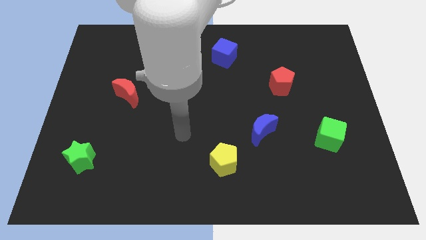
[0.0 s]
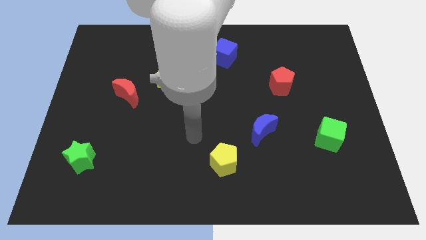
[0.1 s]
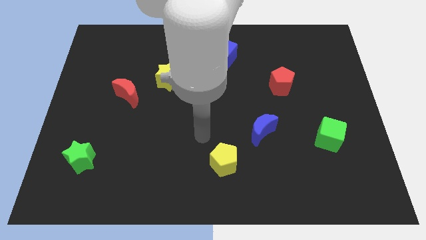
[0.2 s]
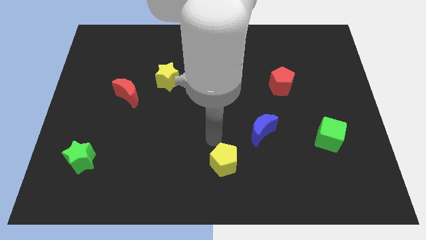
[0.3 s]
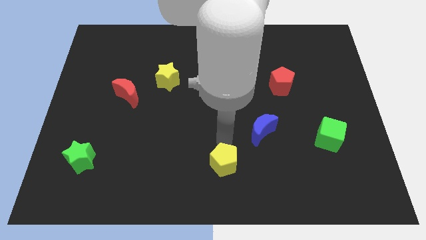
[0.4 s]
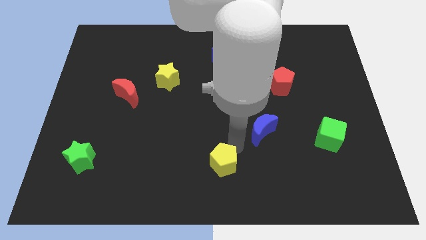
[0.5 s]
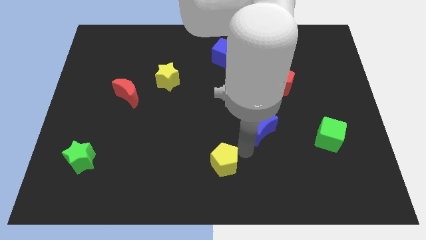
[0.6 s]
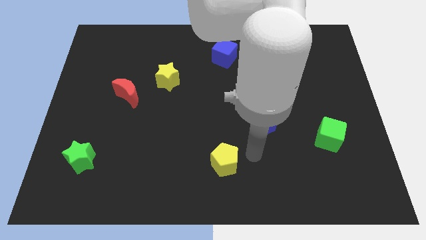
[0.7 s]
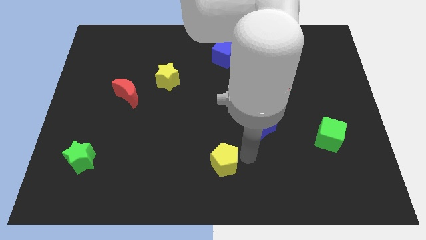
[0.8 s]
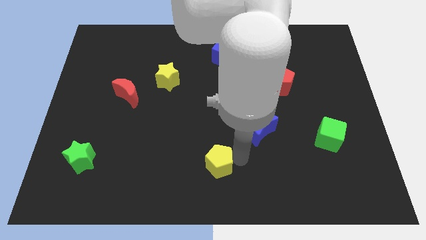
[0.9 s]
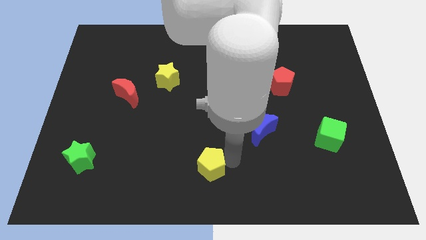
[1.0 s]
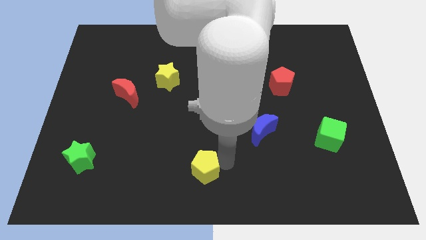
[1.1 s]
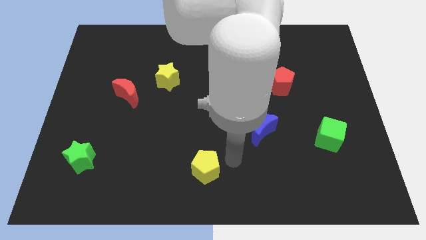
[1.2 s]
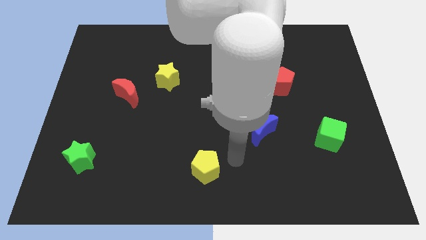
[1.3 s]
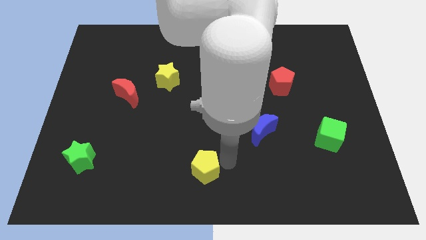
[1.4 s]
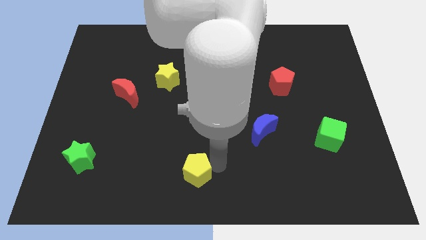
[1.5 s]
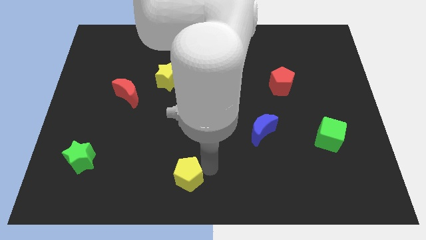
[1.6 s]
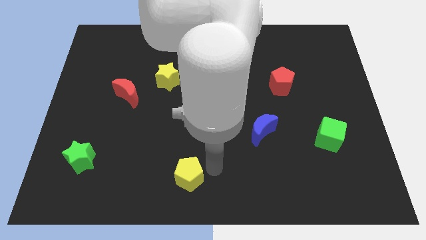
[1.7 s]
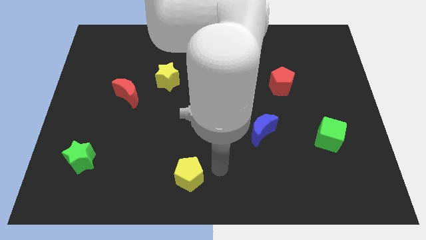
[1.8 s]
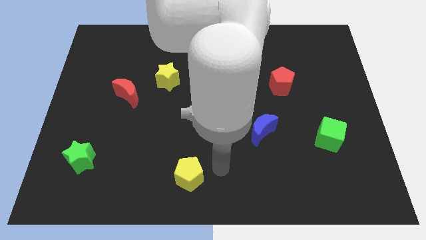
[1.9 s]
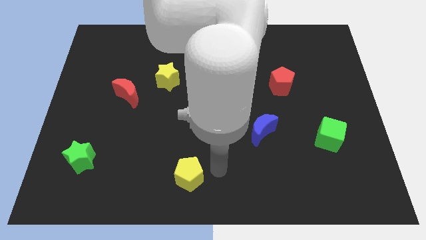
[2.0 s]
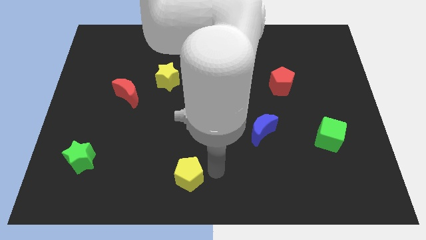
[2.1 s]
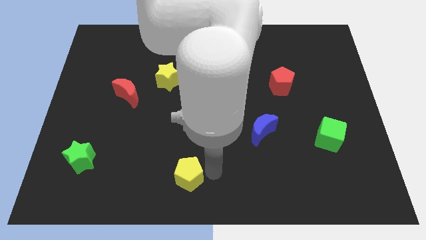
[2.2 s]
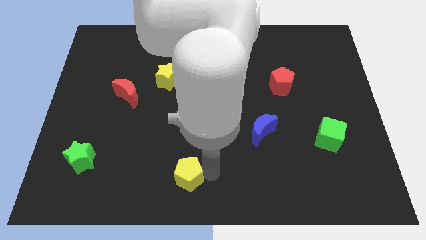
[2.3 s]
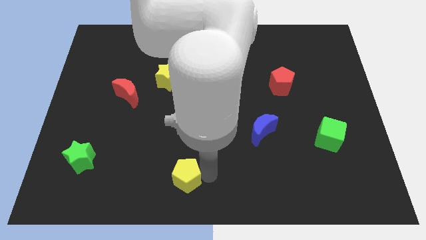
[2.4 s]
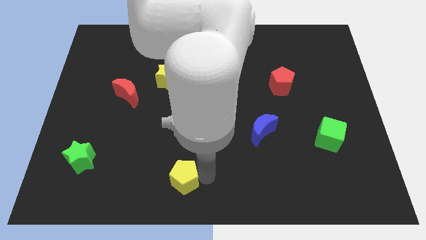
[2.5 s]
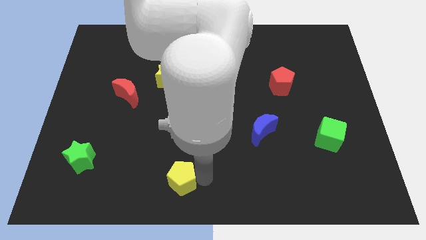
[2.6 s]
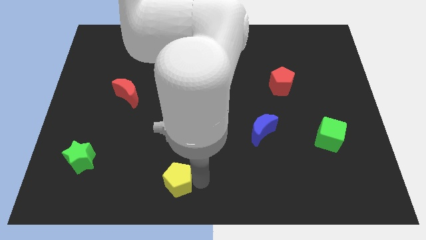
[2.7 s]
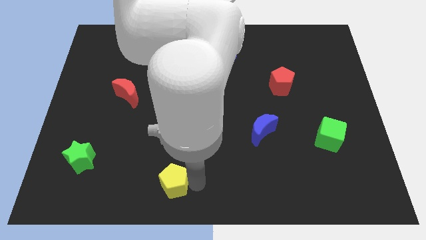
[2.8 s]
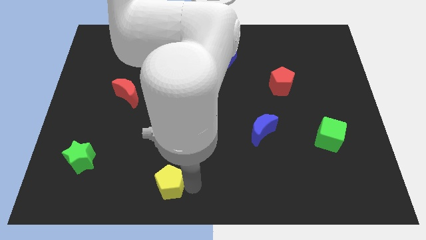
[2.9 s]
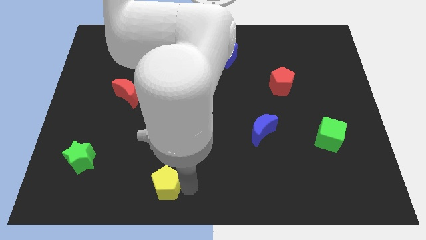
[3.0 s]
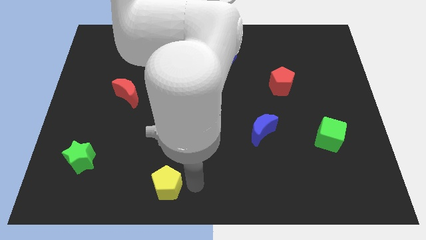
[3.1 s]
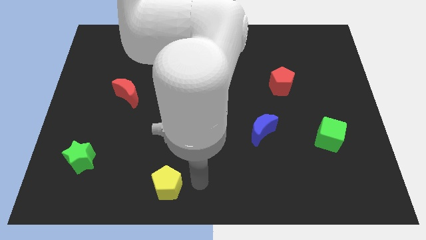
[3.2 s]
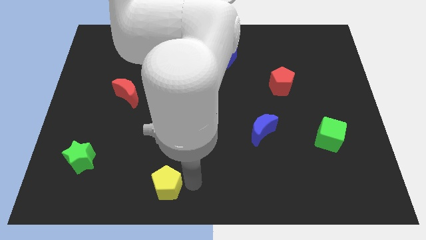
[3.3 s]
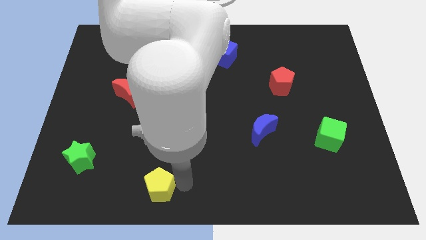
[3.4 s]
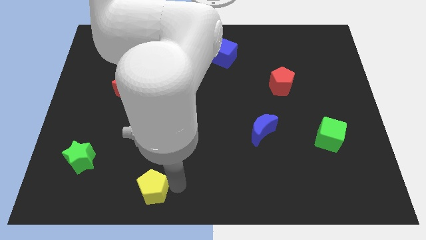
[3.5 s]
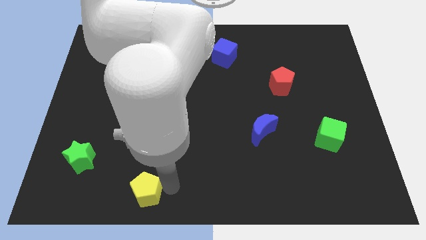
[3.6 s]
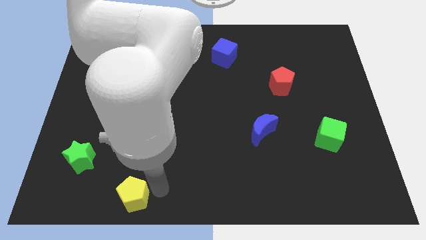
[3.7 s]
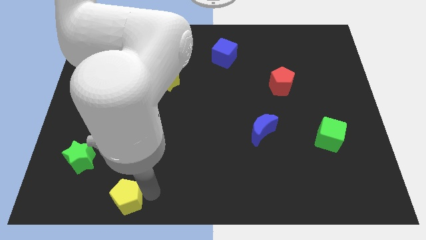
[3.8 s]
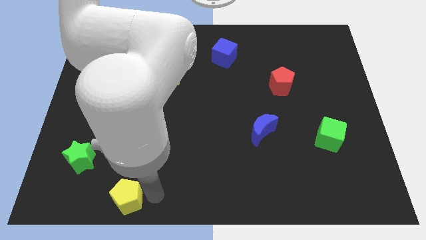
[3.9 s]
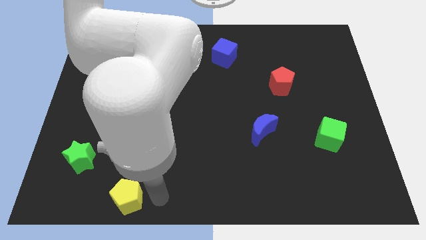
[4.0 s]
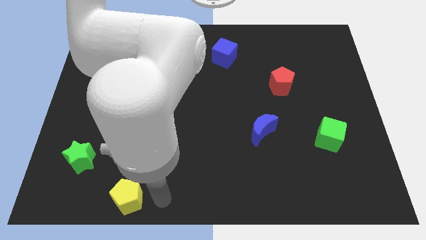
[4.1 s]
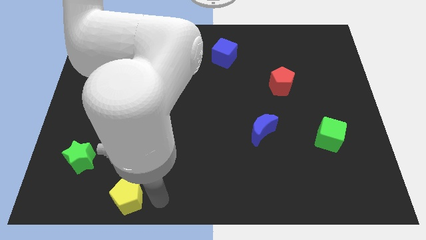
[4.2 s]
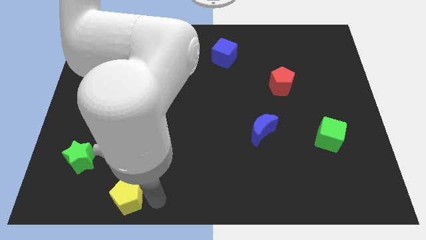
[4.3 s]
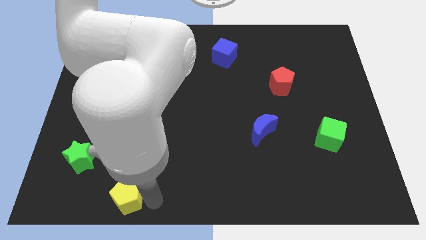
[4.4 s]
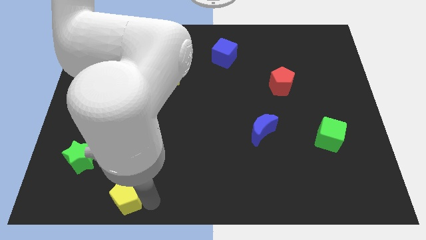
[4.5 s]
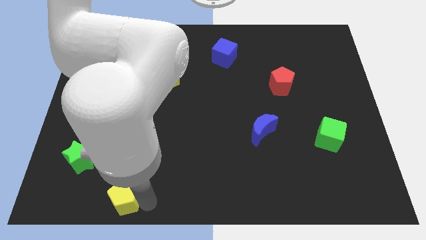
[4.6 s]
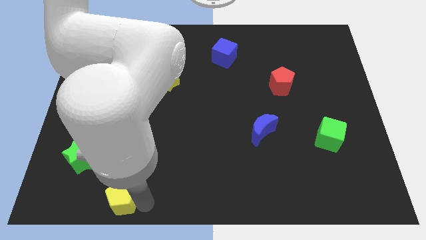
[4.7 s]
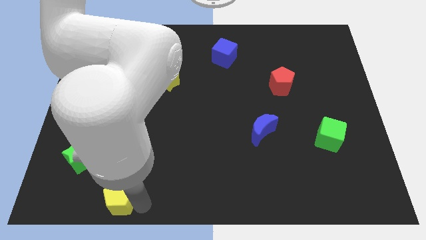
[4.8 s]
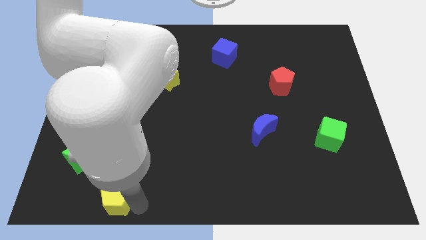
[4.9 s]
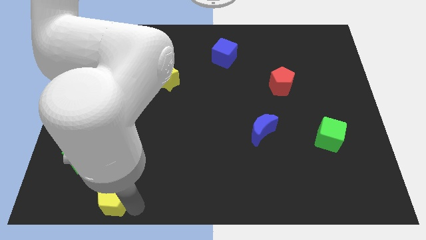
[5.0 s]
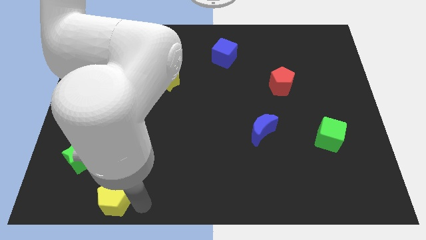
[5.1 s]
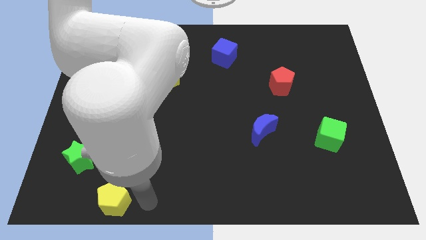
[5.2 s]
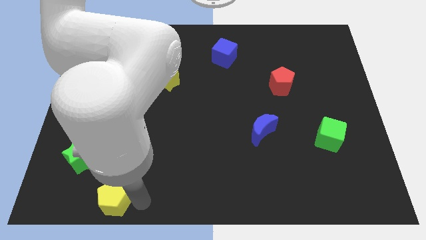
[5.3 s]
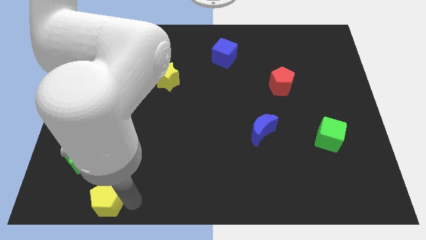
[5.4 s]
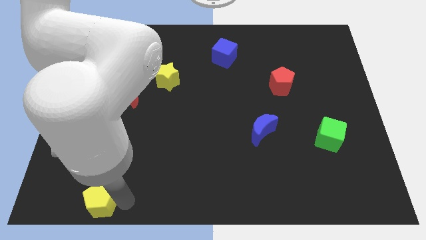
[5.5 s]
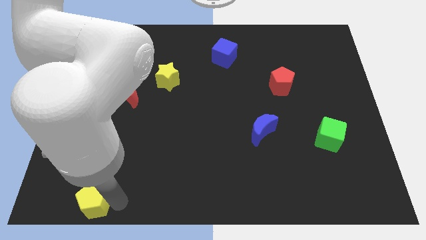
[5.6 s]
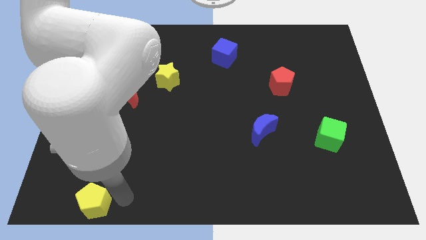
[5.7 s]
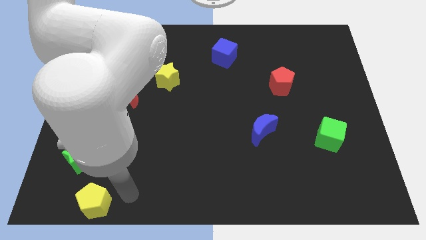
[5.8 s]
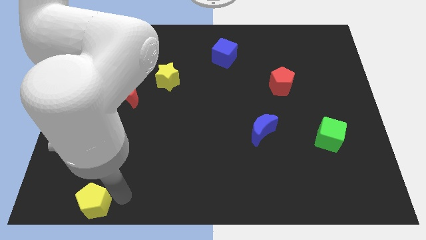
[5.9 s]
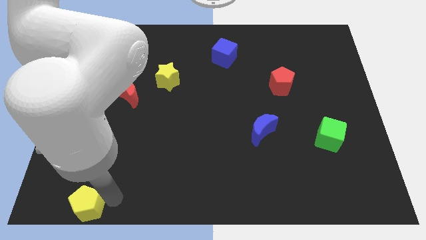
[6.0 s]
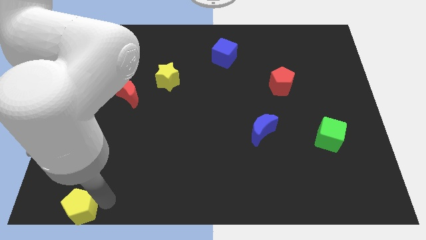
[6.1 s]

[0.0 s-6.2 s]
slide the yellow pentagon to the bottom left of the board

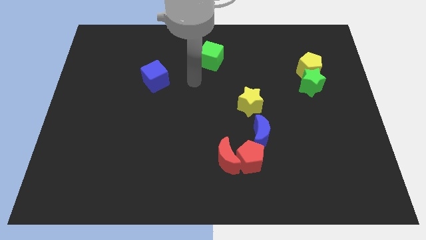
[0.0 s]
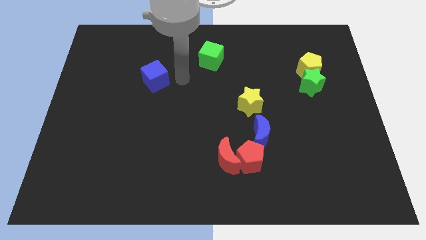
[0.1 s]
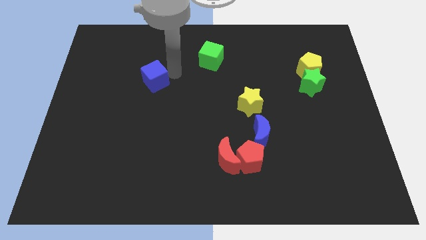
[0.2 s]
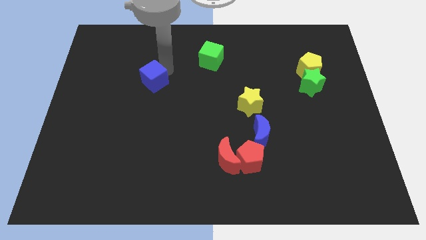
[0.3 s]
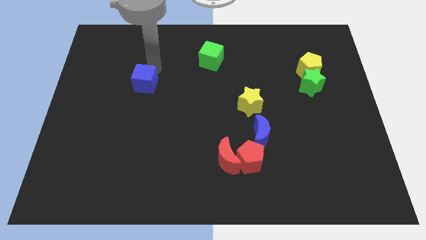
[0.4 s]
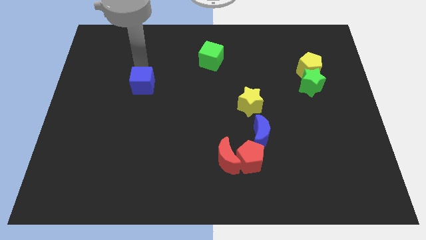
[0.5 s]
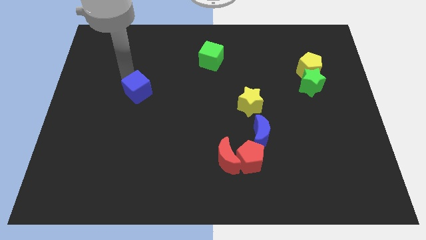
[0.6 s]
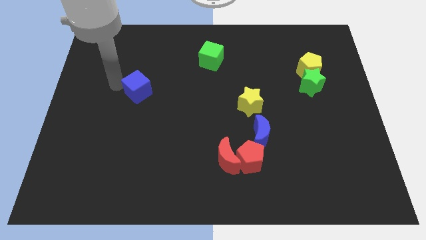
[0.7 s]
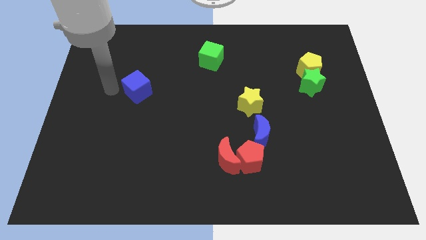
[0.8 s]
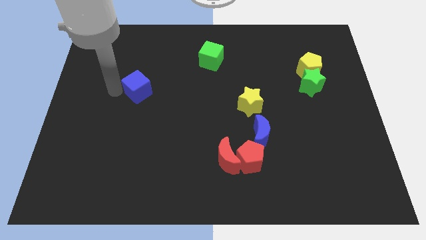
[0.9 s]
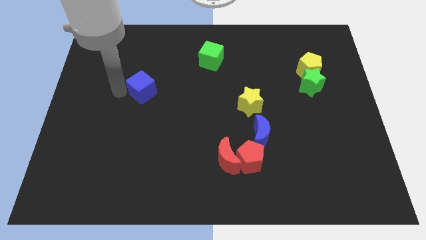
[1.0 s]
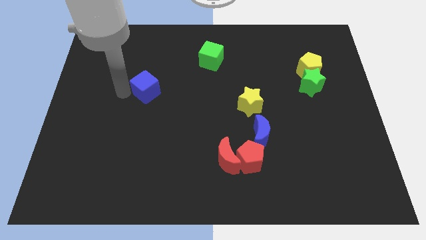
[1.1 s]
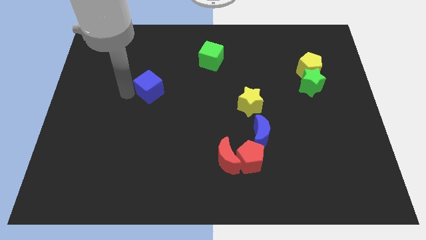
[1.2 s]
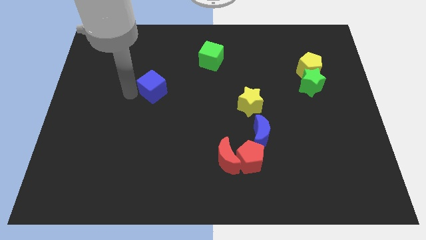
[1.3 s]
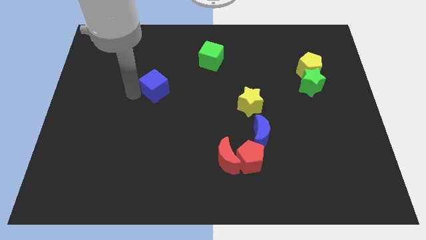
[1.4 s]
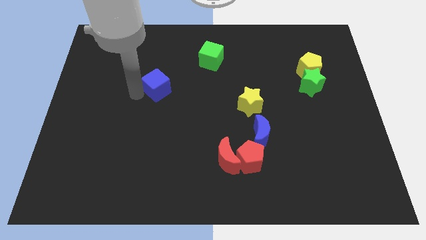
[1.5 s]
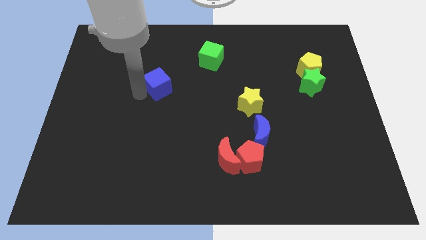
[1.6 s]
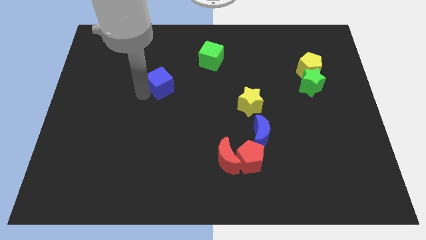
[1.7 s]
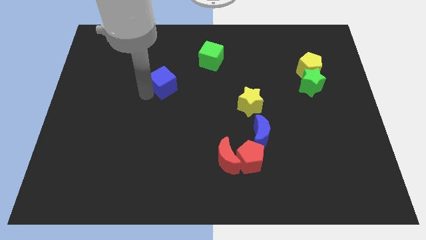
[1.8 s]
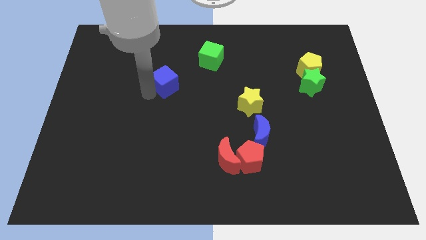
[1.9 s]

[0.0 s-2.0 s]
move the blue cube to the center of the board
